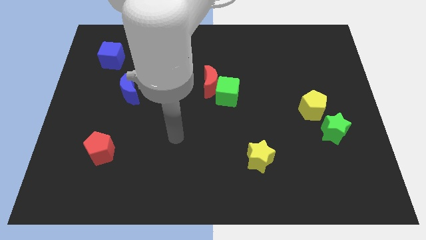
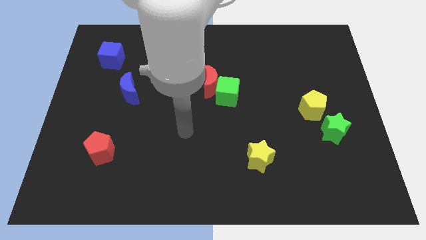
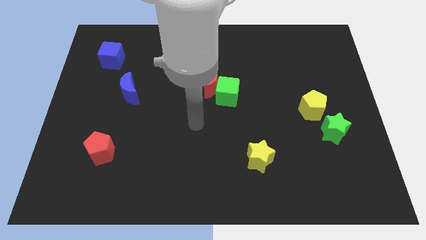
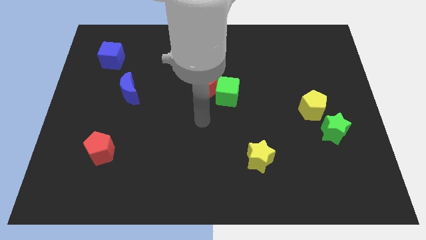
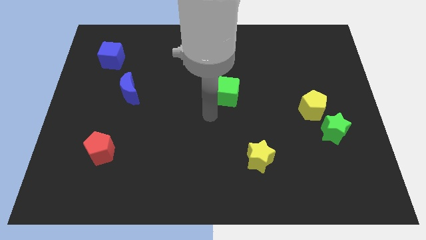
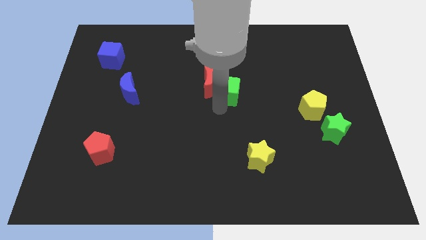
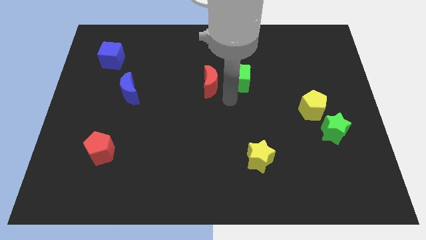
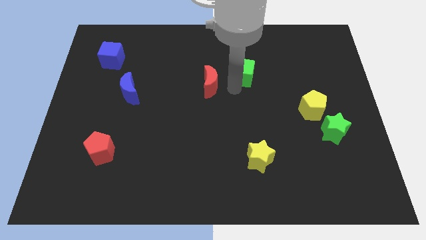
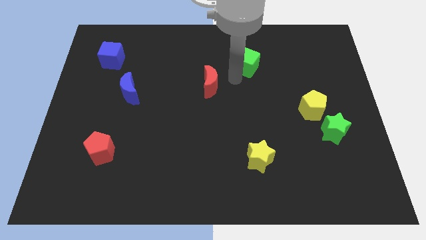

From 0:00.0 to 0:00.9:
pull the red moon apart from the green cube

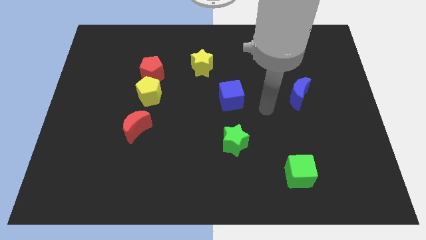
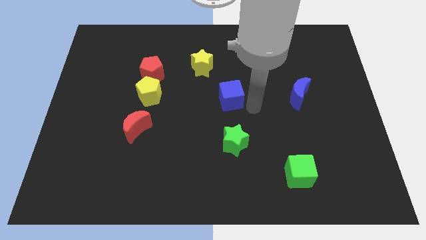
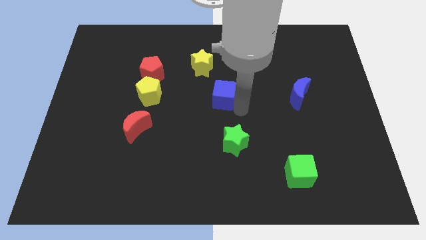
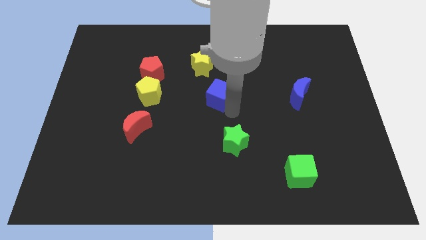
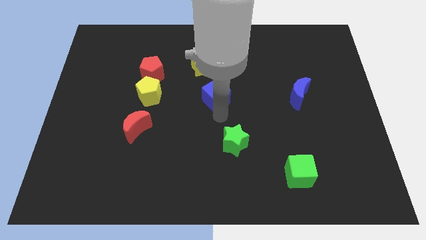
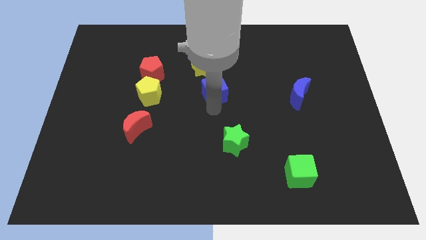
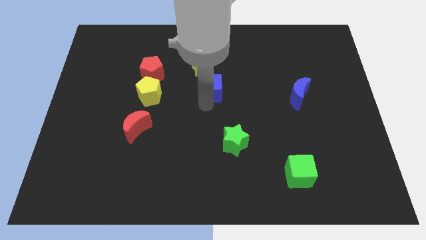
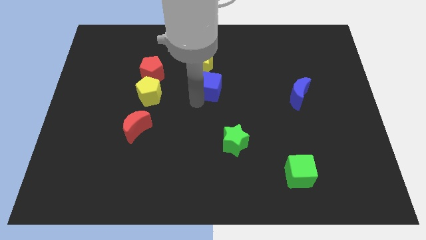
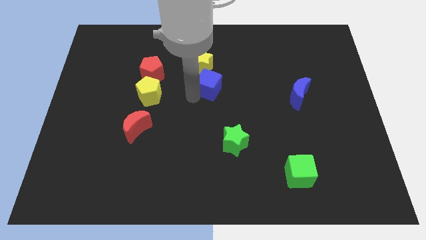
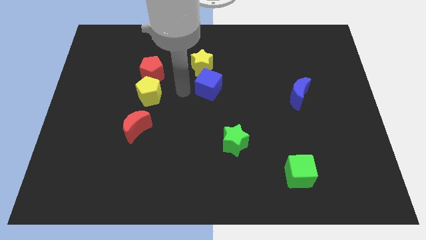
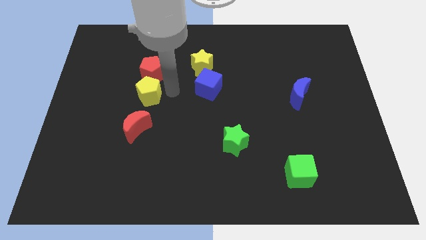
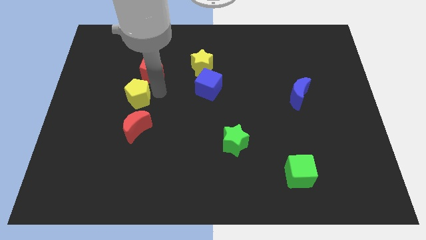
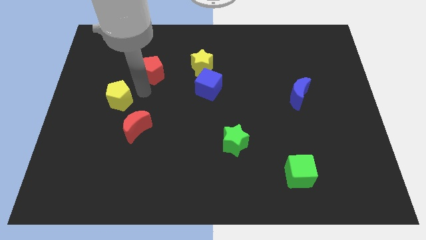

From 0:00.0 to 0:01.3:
move the red pentagon away from the yellow pentagon

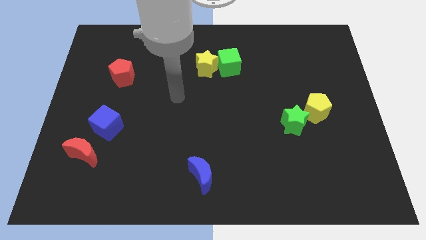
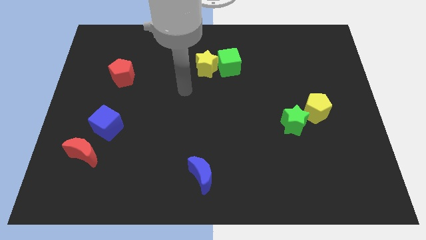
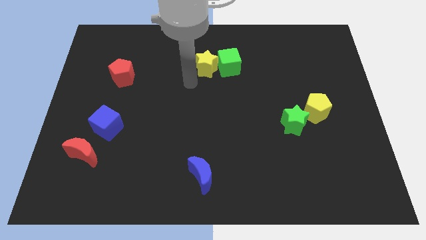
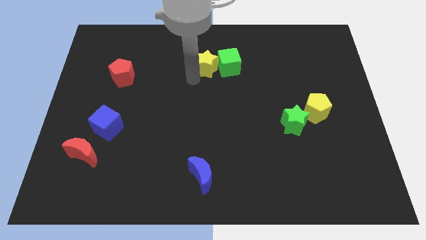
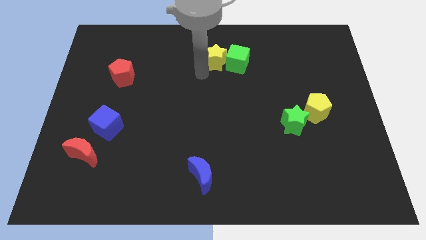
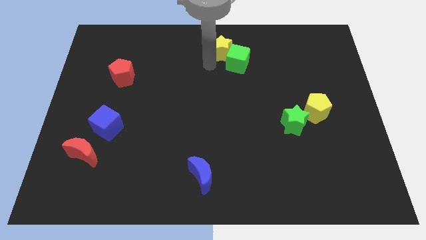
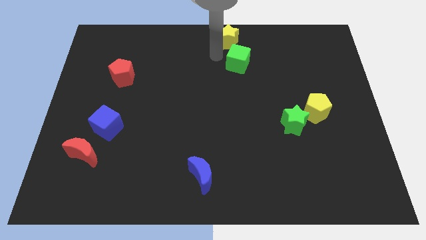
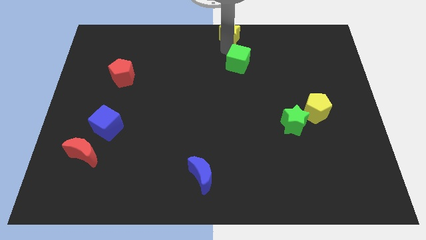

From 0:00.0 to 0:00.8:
pull the green cube apart from the yellow star

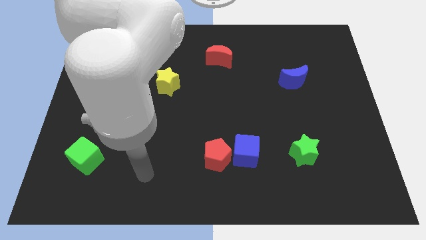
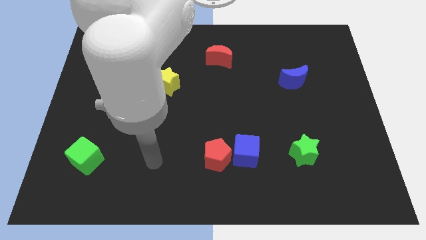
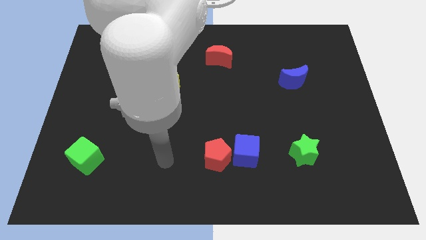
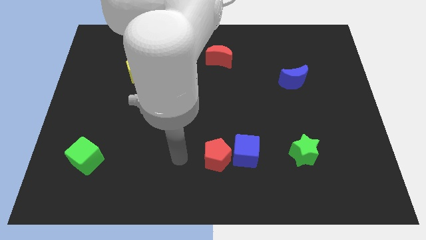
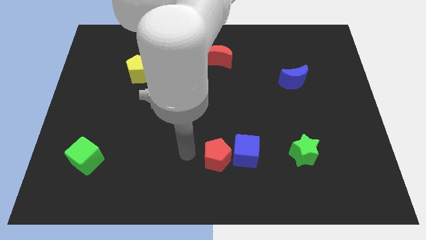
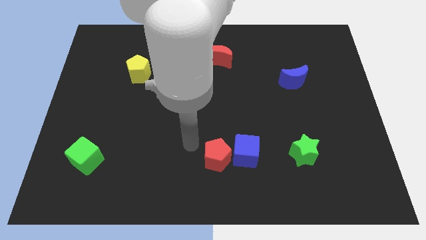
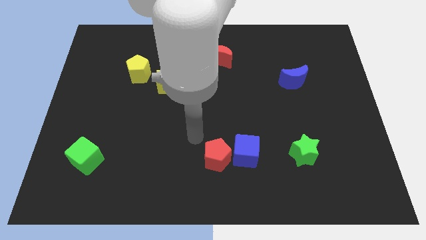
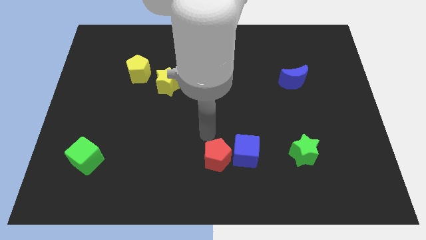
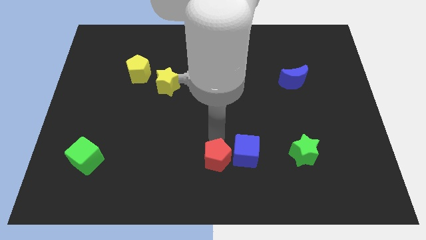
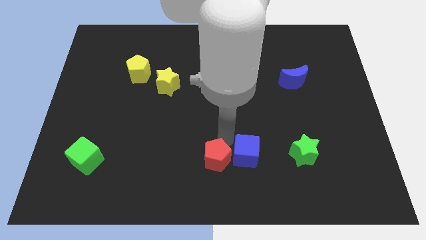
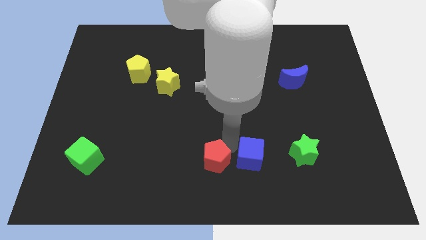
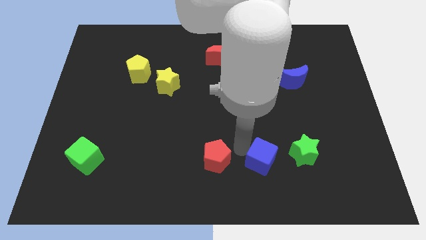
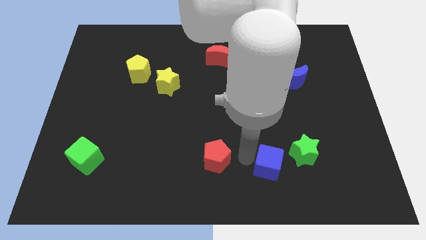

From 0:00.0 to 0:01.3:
separate the red pentagon from the blue cube

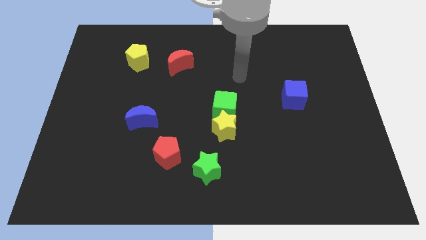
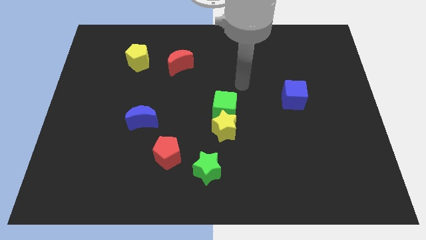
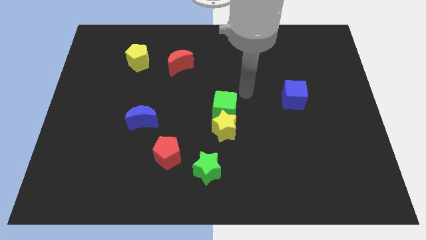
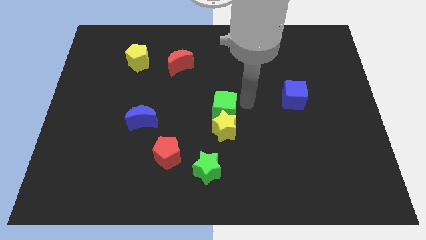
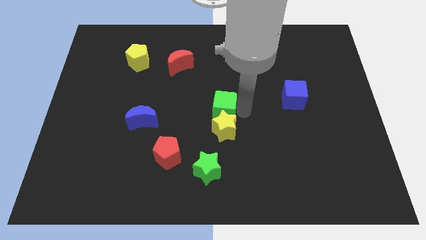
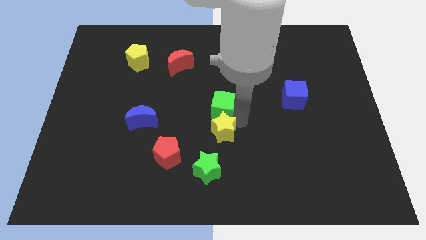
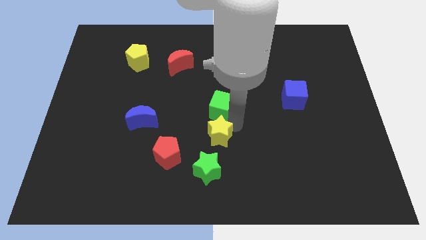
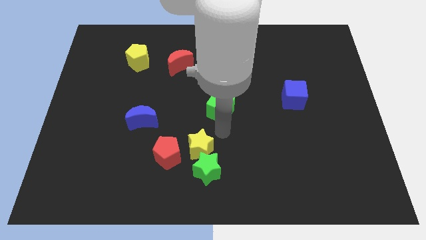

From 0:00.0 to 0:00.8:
move the green cube away from the yellow star

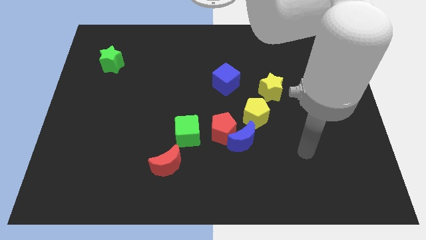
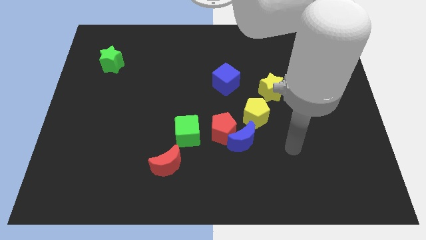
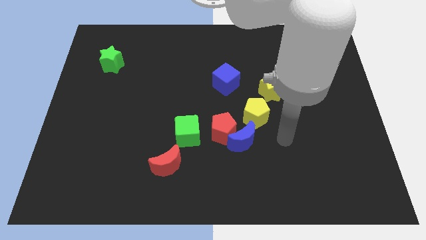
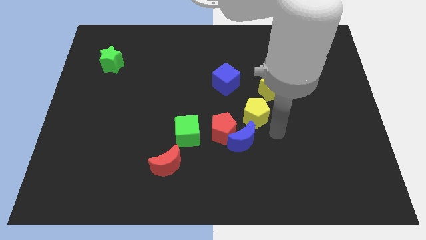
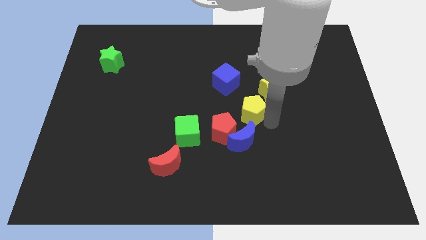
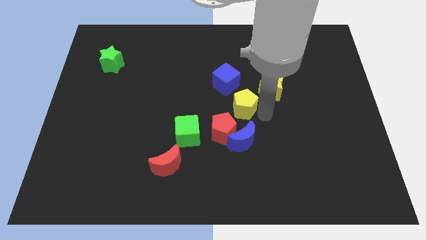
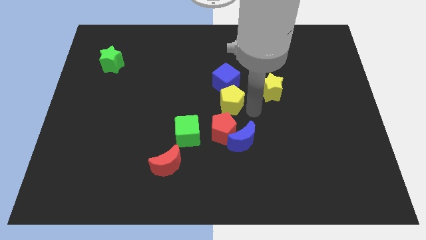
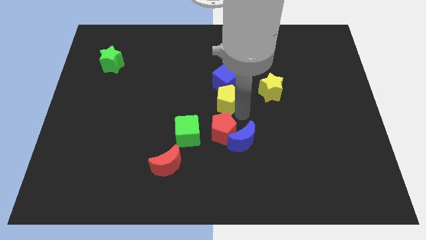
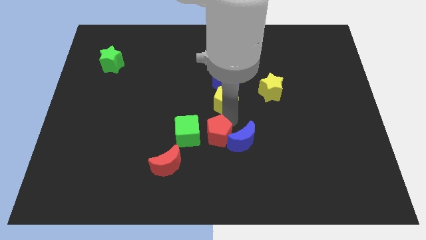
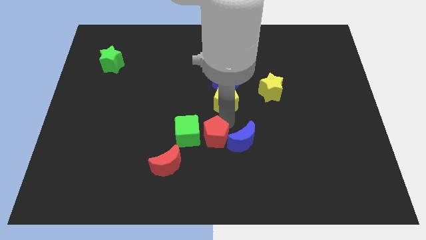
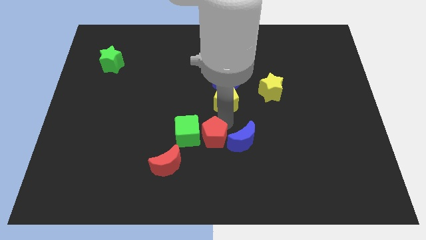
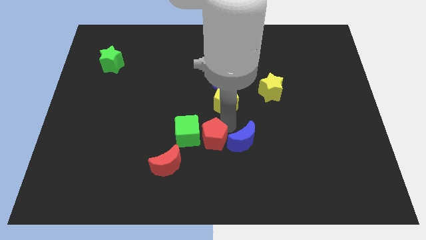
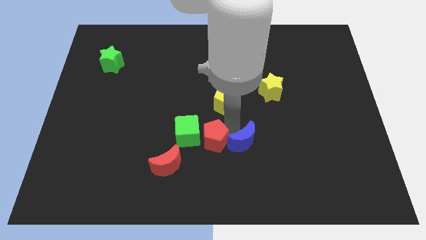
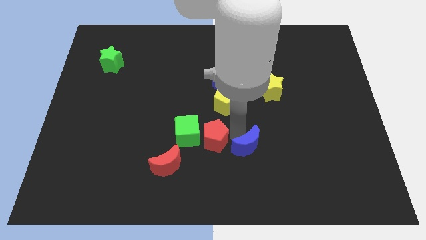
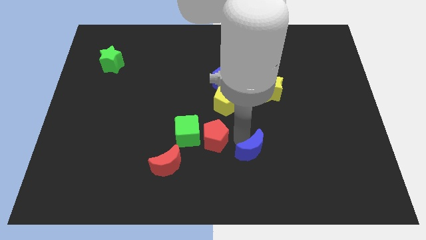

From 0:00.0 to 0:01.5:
pull the blue moon apart from the red pentagon and yellow pentagon

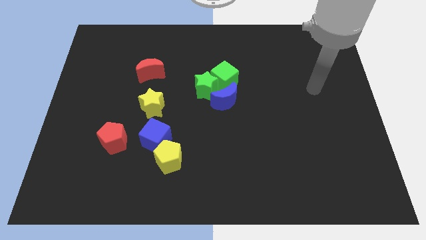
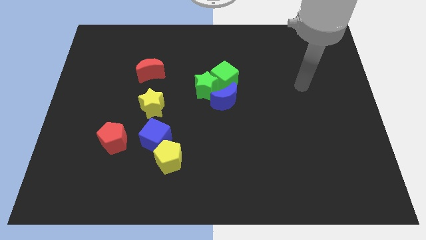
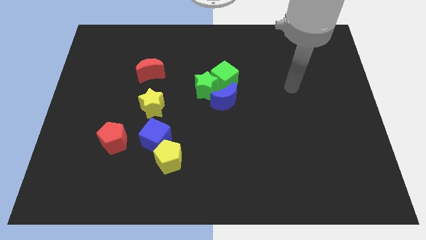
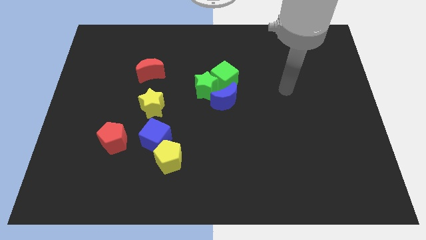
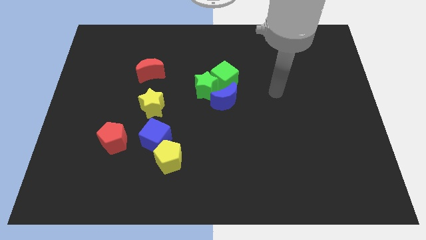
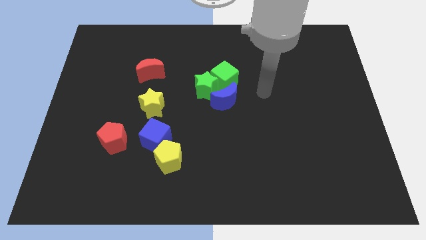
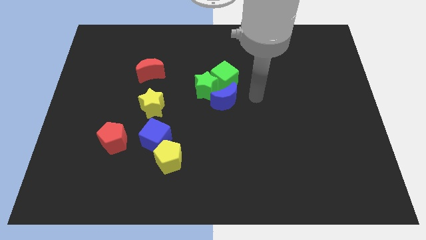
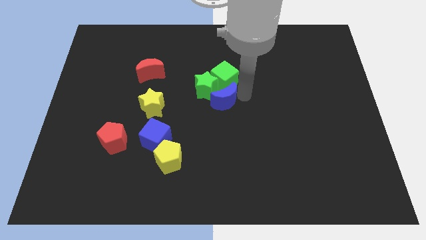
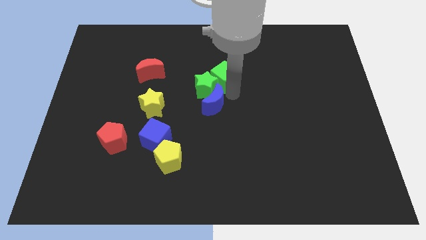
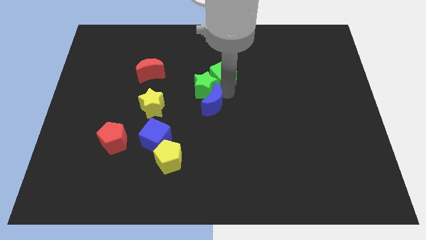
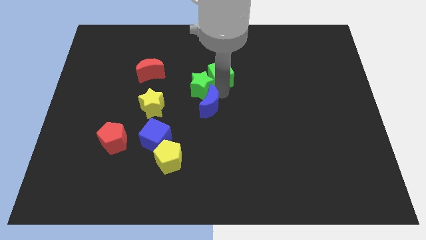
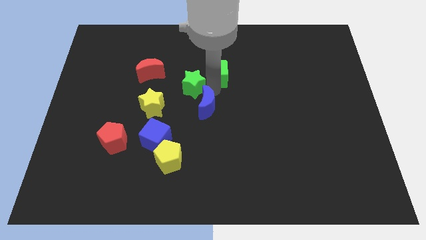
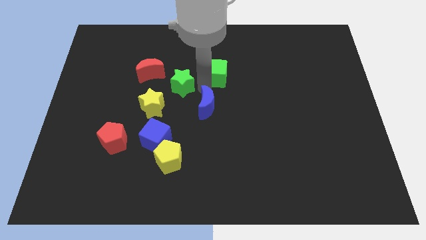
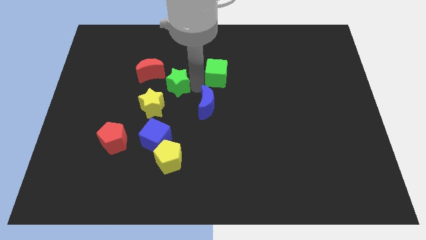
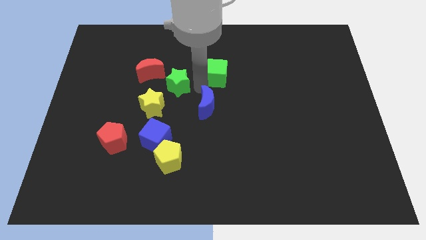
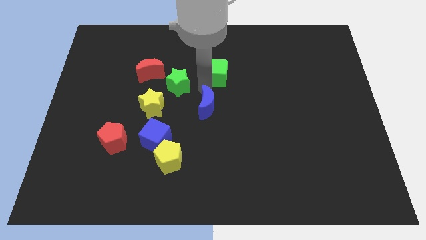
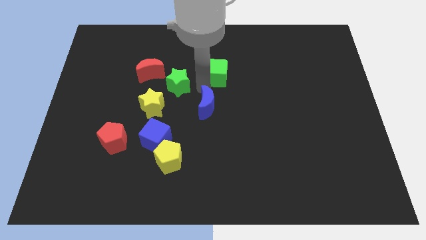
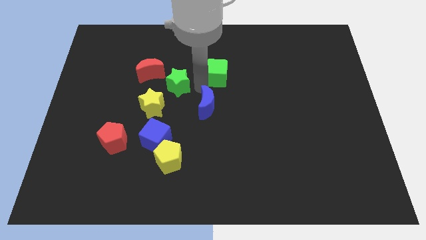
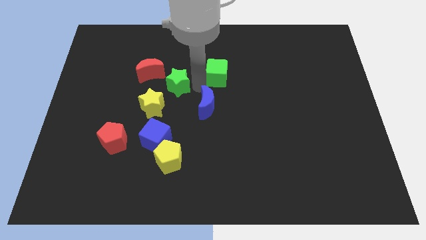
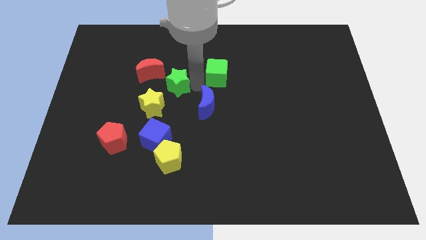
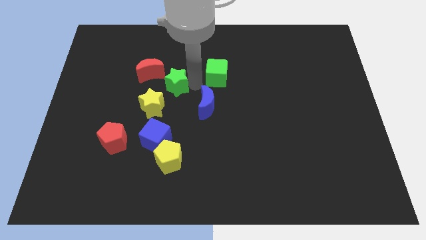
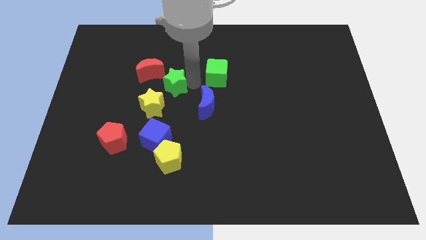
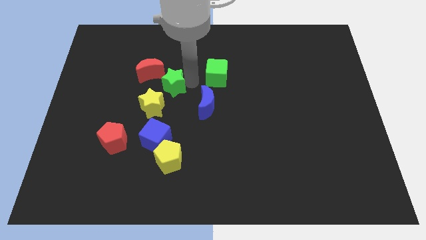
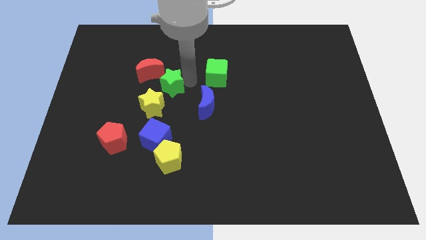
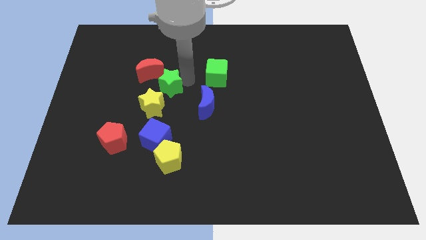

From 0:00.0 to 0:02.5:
separate the green star from the green cube and blue moon

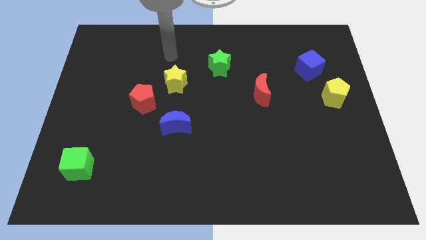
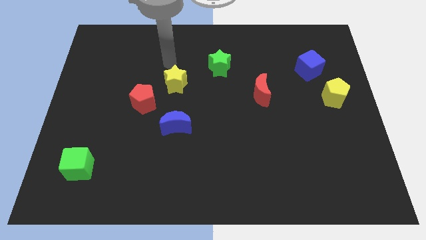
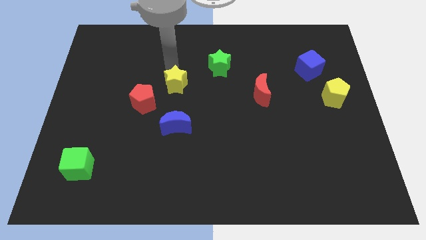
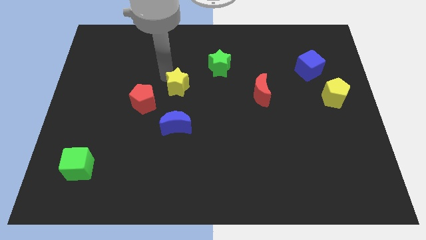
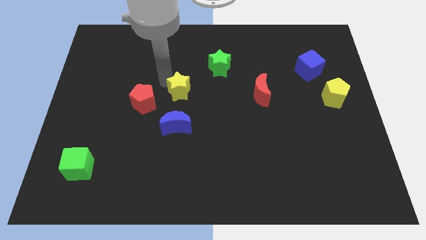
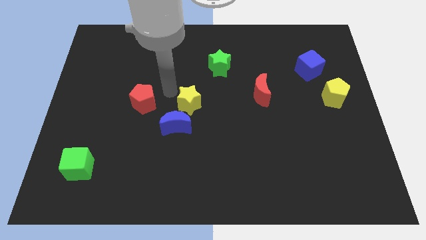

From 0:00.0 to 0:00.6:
move the red pentagon away from the yellow star
